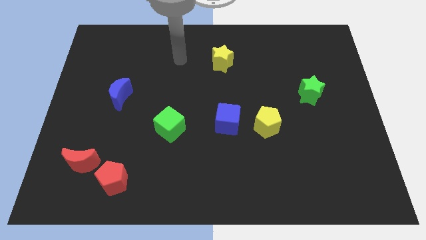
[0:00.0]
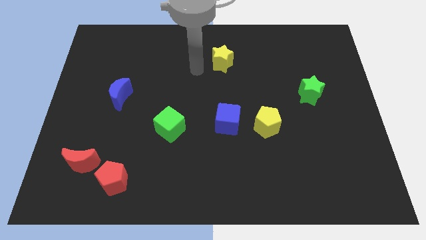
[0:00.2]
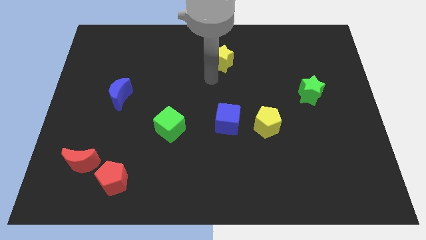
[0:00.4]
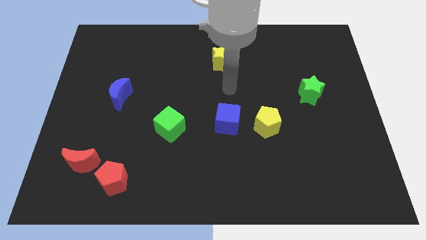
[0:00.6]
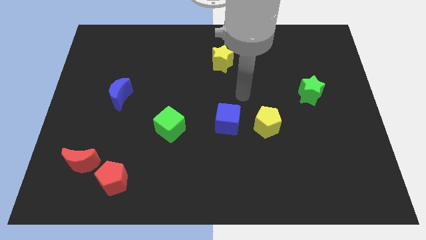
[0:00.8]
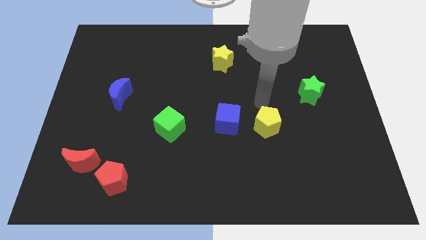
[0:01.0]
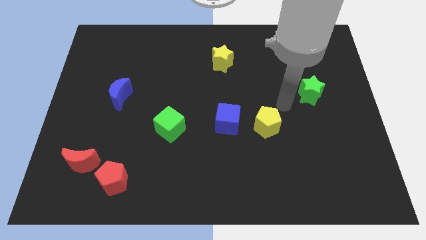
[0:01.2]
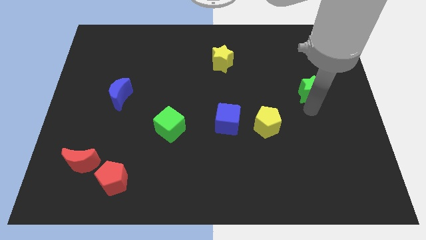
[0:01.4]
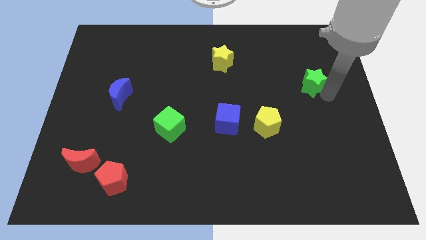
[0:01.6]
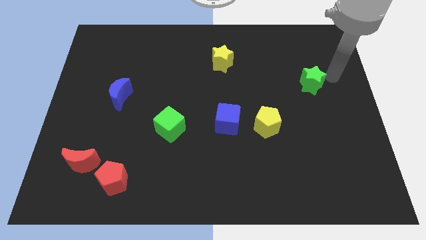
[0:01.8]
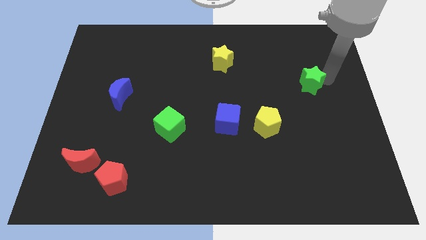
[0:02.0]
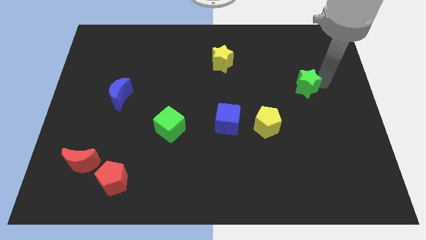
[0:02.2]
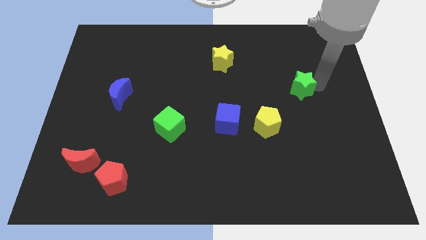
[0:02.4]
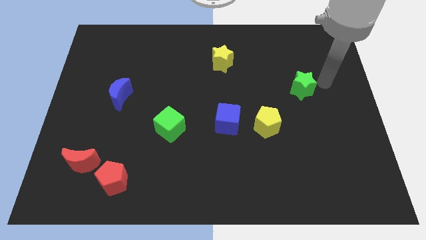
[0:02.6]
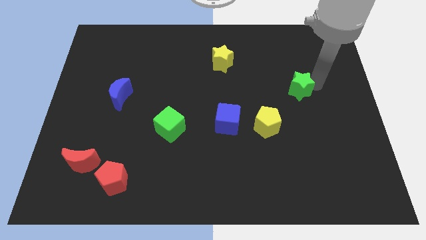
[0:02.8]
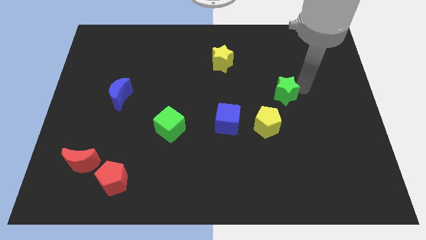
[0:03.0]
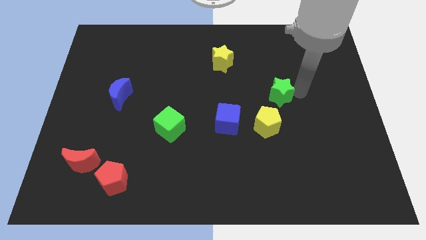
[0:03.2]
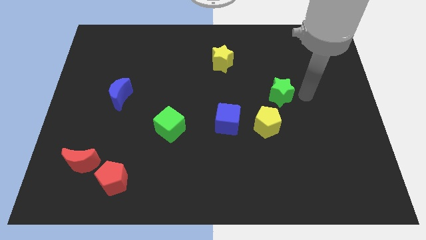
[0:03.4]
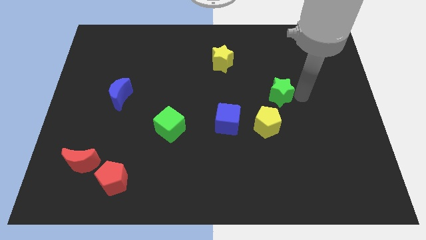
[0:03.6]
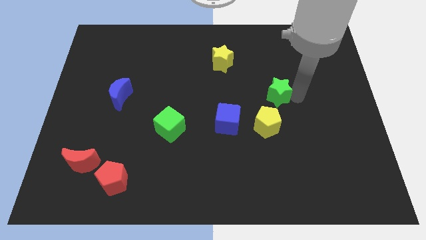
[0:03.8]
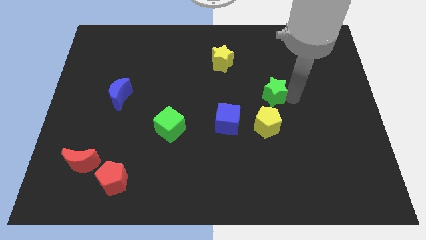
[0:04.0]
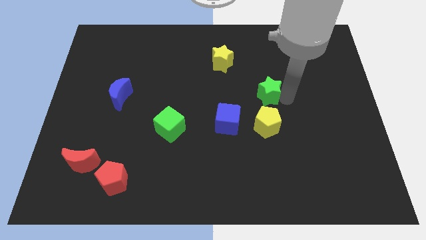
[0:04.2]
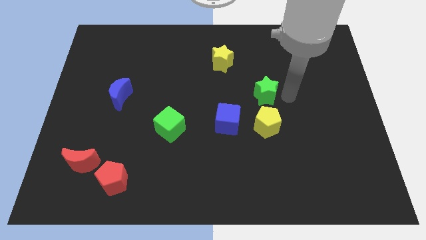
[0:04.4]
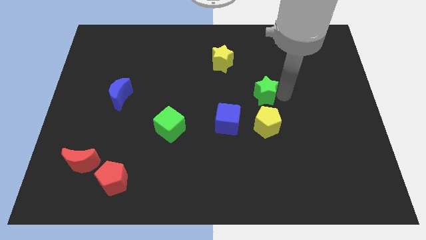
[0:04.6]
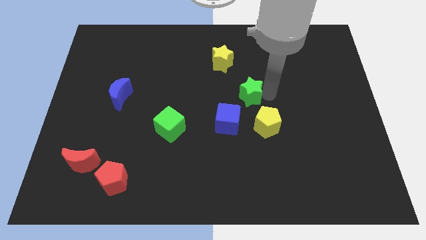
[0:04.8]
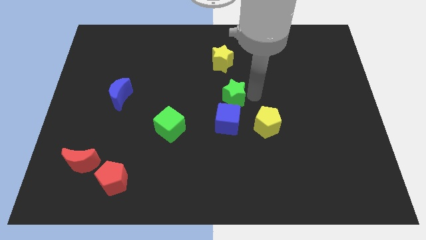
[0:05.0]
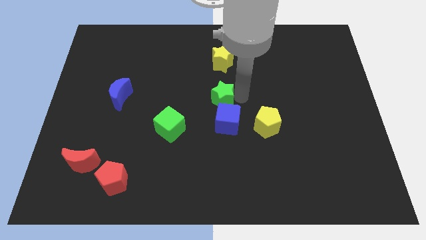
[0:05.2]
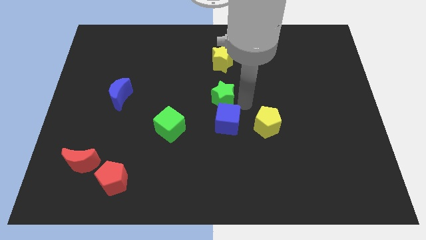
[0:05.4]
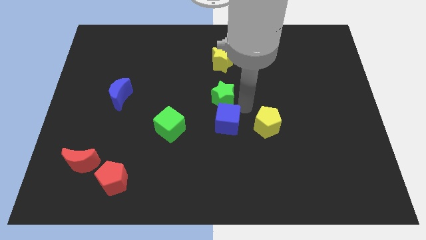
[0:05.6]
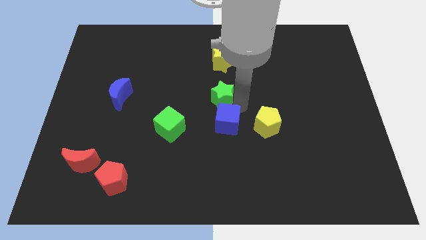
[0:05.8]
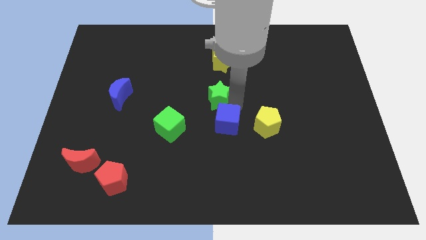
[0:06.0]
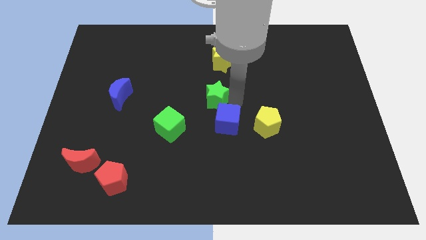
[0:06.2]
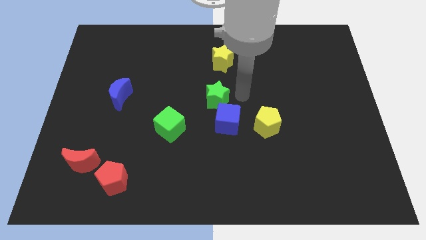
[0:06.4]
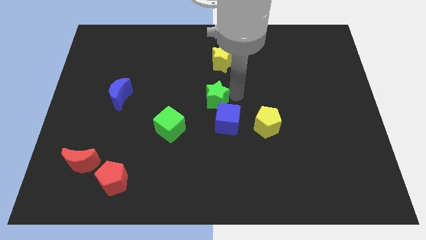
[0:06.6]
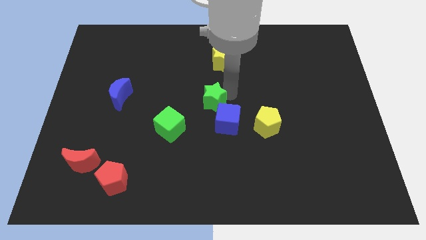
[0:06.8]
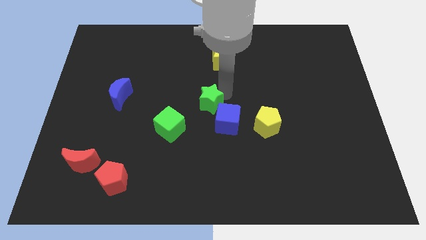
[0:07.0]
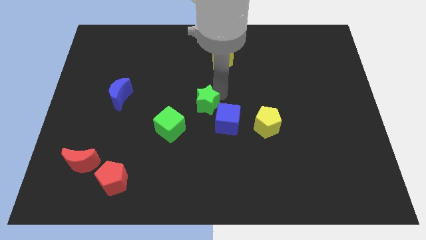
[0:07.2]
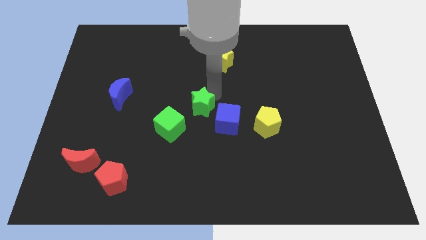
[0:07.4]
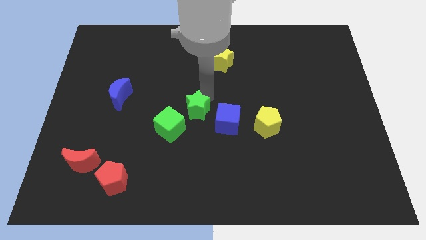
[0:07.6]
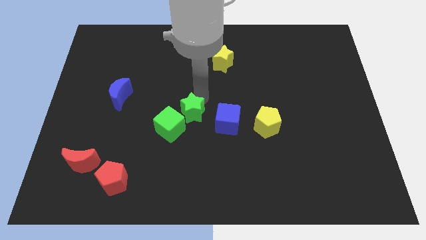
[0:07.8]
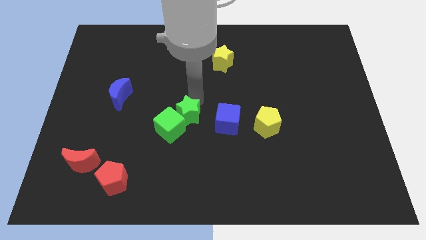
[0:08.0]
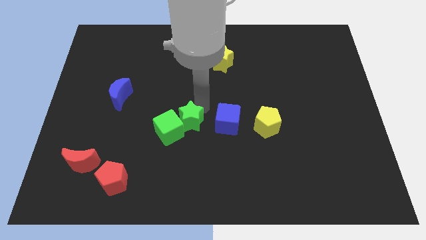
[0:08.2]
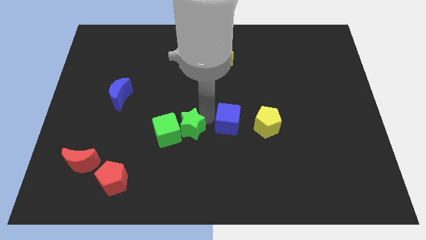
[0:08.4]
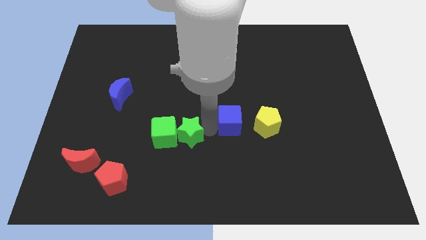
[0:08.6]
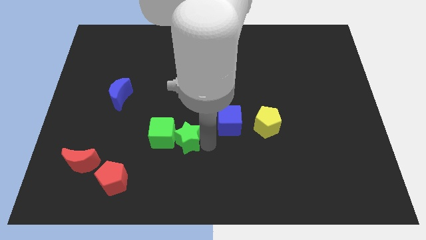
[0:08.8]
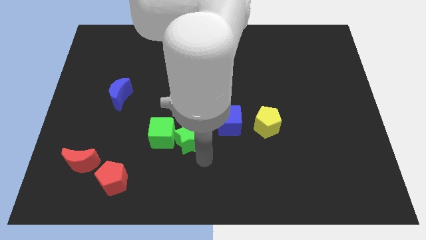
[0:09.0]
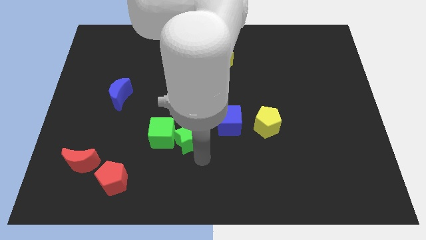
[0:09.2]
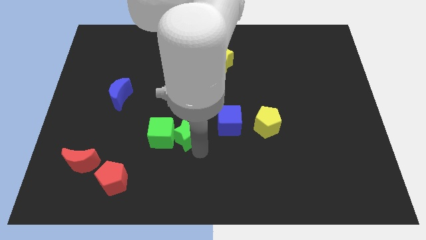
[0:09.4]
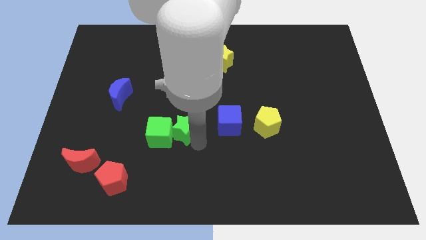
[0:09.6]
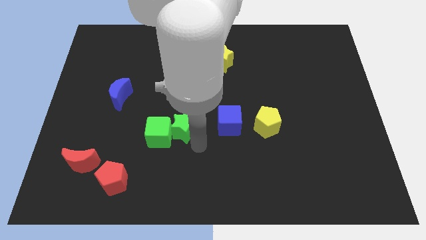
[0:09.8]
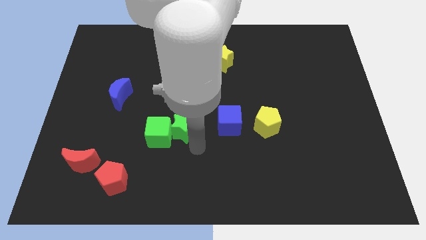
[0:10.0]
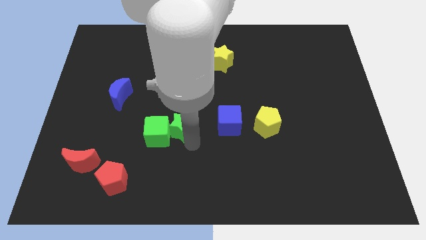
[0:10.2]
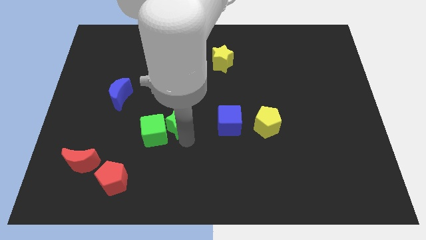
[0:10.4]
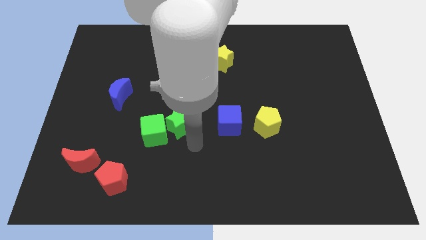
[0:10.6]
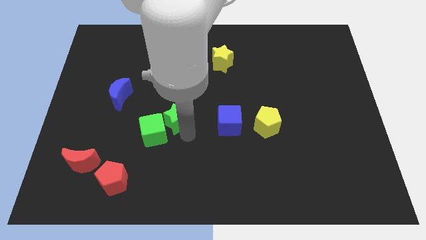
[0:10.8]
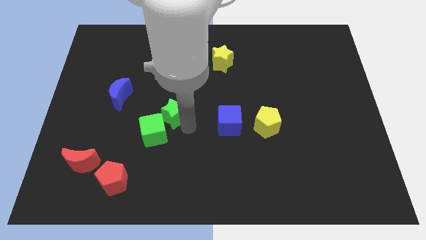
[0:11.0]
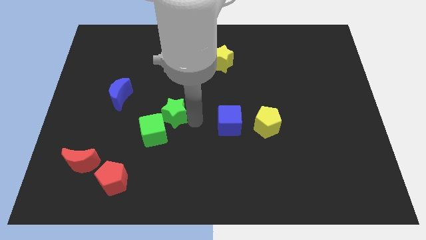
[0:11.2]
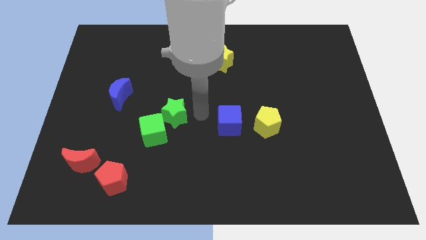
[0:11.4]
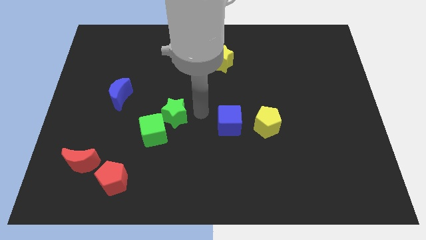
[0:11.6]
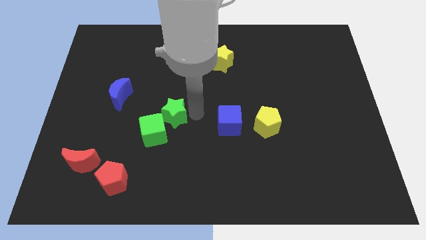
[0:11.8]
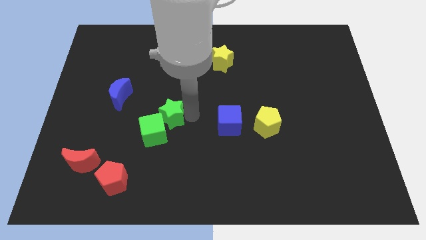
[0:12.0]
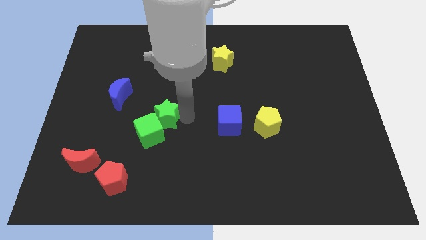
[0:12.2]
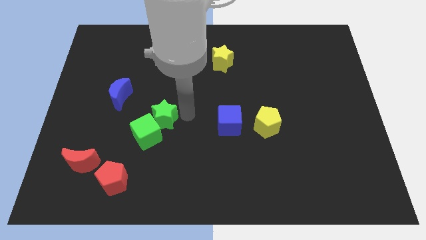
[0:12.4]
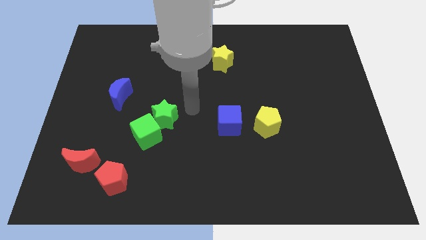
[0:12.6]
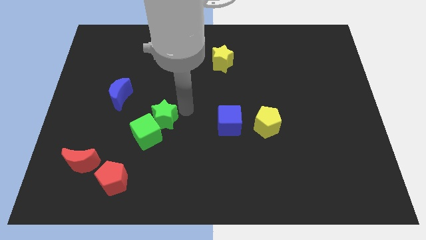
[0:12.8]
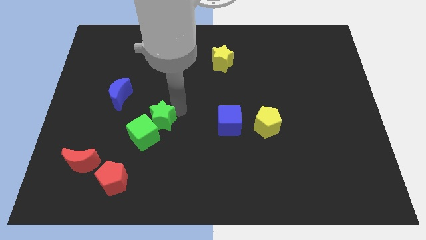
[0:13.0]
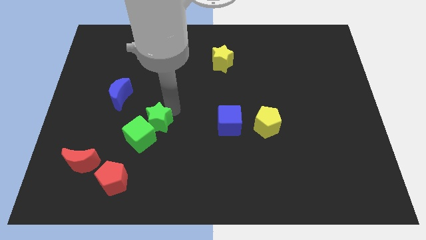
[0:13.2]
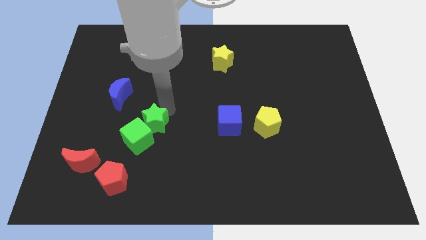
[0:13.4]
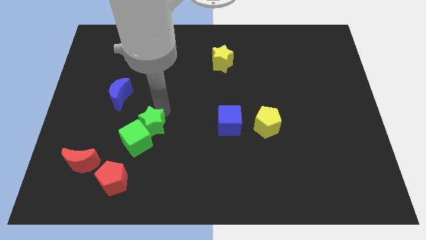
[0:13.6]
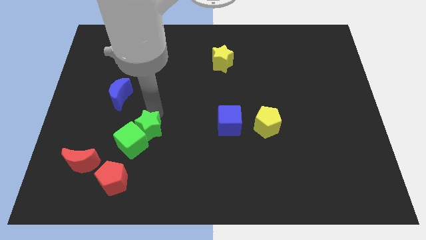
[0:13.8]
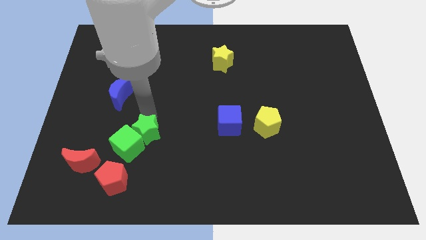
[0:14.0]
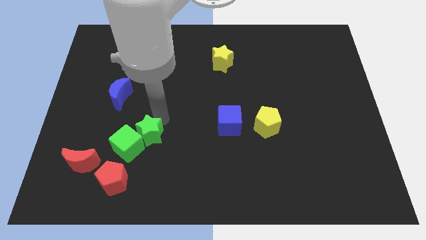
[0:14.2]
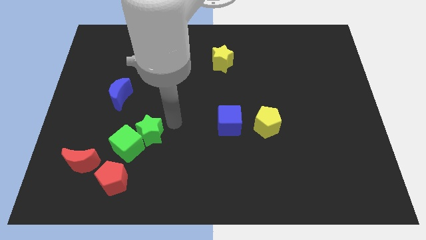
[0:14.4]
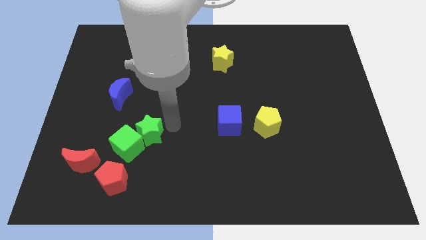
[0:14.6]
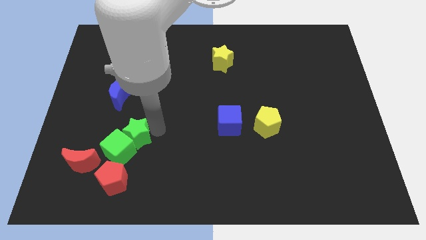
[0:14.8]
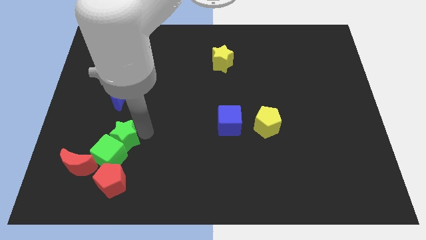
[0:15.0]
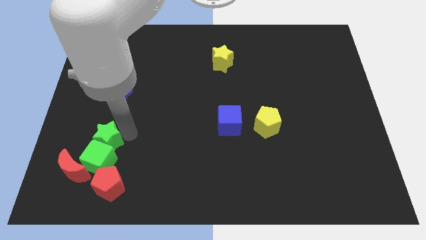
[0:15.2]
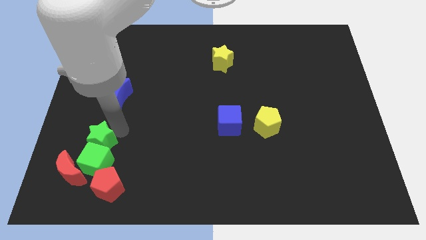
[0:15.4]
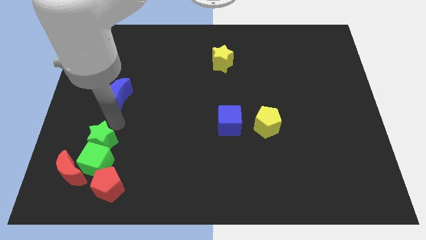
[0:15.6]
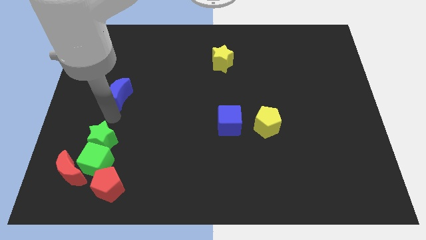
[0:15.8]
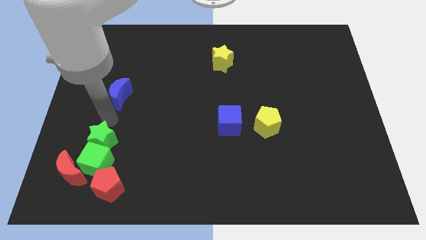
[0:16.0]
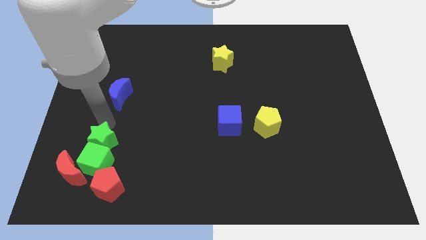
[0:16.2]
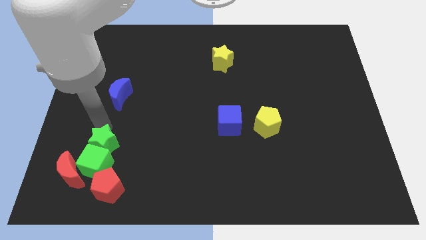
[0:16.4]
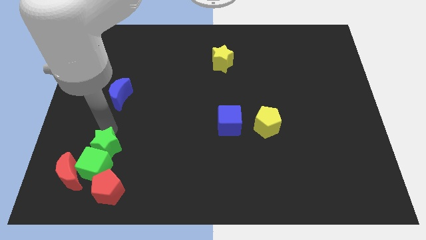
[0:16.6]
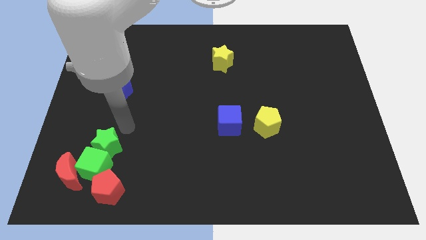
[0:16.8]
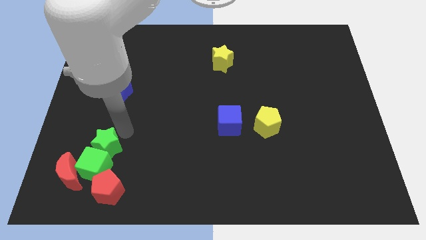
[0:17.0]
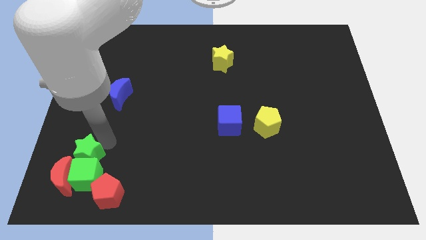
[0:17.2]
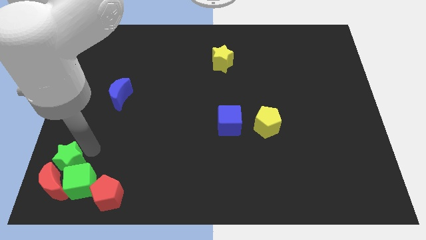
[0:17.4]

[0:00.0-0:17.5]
move the green star next to the red moon
